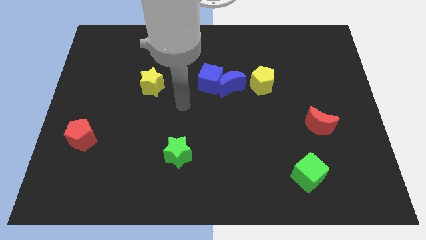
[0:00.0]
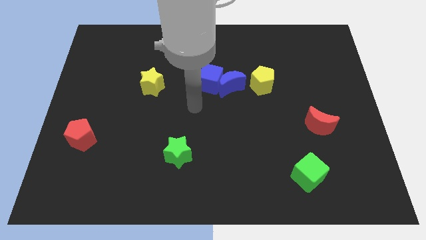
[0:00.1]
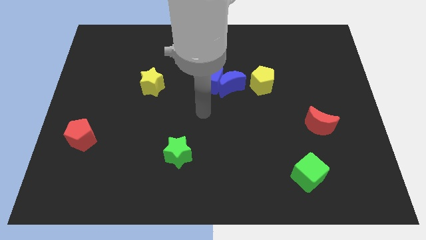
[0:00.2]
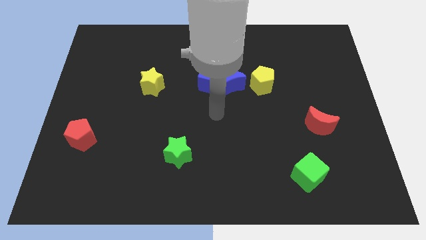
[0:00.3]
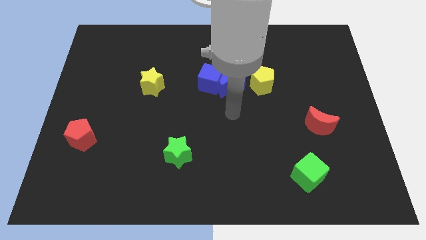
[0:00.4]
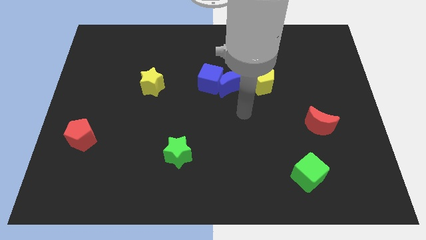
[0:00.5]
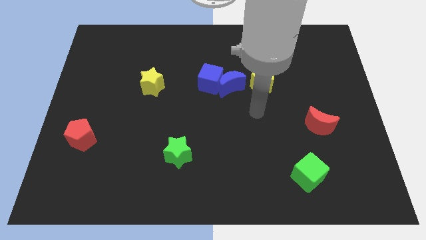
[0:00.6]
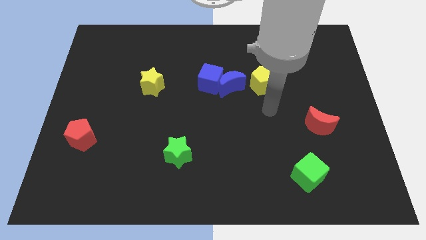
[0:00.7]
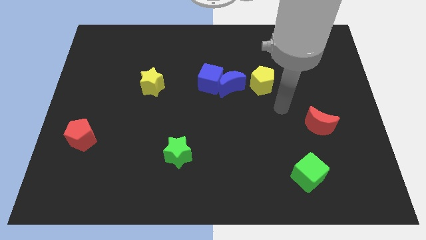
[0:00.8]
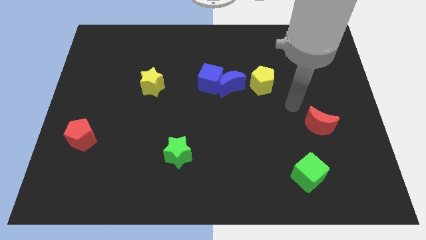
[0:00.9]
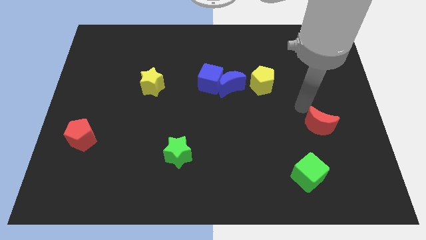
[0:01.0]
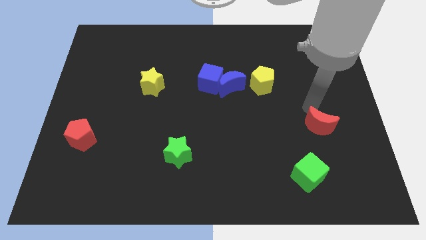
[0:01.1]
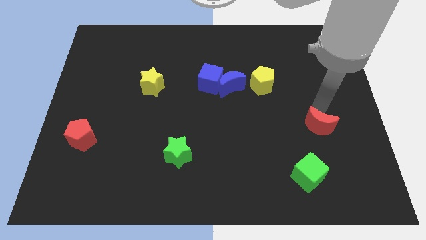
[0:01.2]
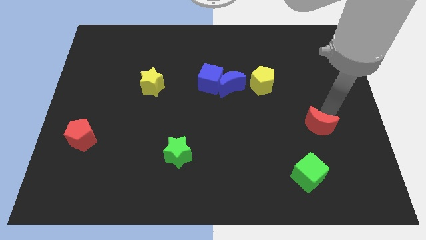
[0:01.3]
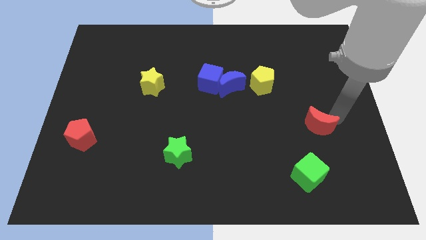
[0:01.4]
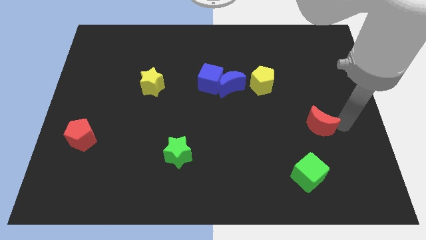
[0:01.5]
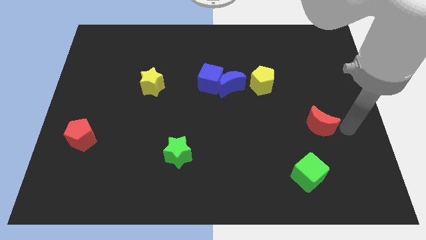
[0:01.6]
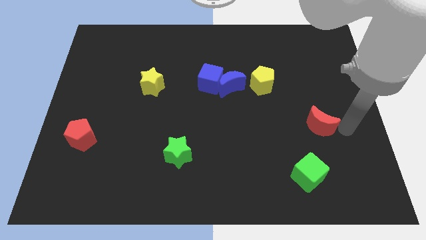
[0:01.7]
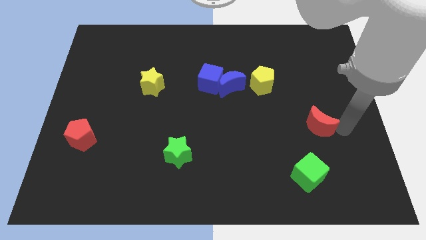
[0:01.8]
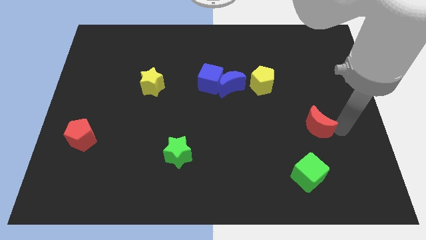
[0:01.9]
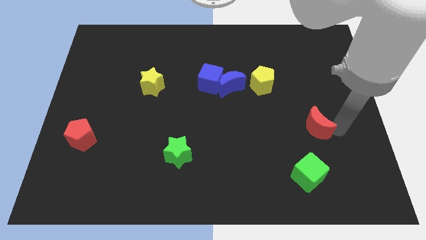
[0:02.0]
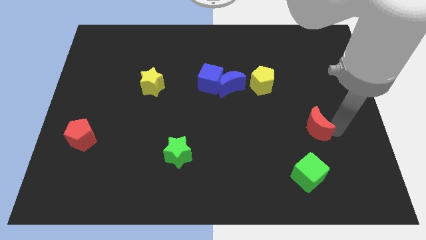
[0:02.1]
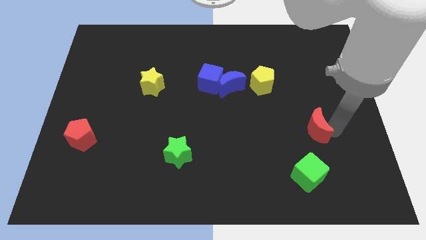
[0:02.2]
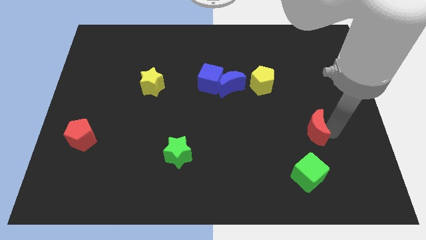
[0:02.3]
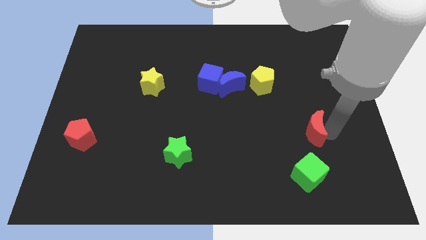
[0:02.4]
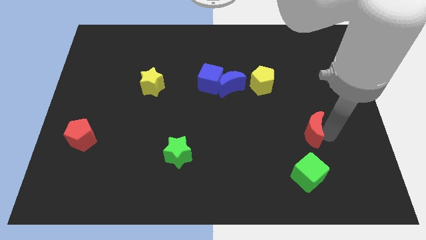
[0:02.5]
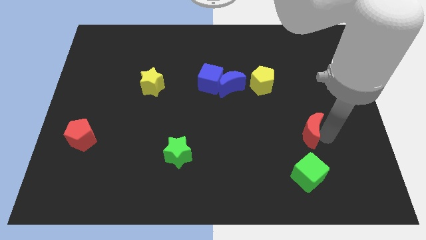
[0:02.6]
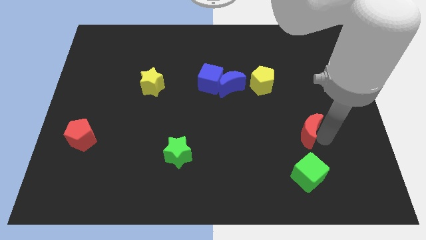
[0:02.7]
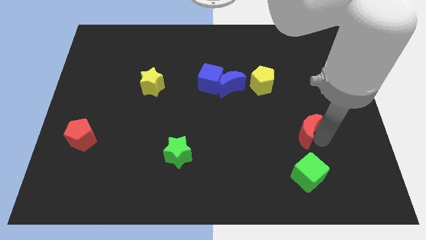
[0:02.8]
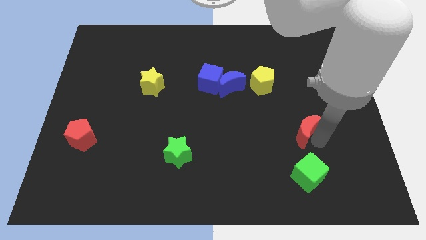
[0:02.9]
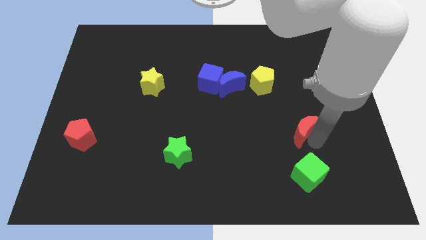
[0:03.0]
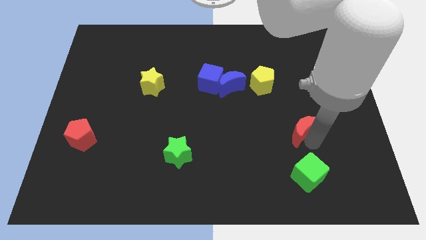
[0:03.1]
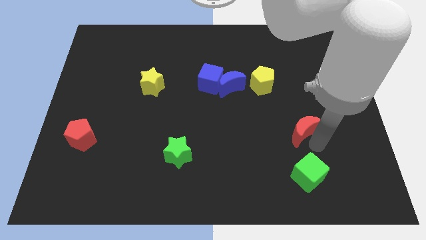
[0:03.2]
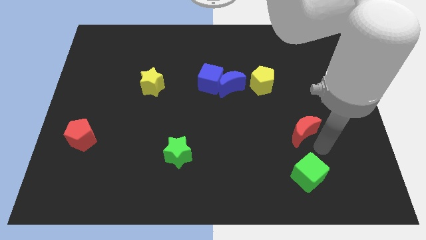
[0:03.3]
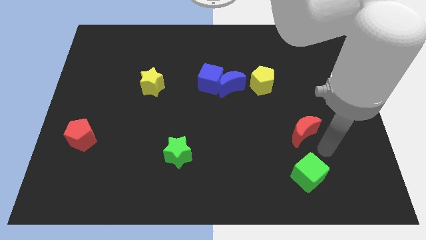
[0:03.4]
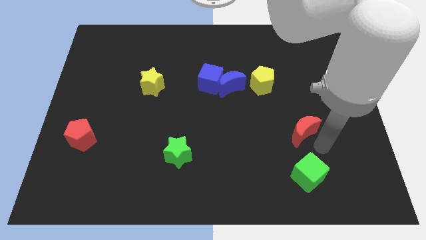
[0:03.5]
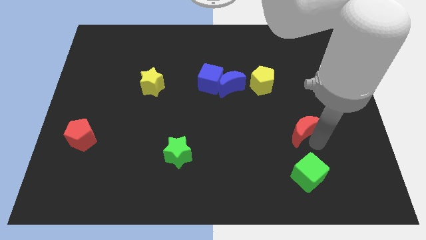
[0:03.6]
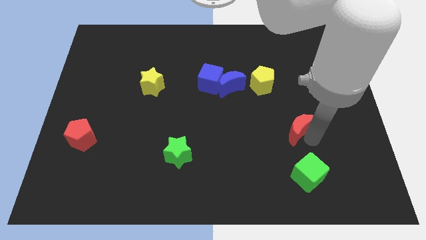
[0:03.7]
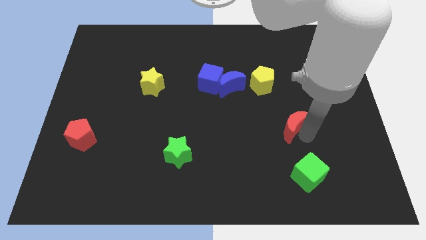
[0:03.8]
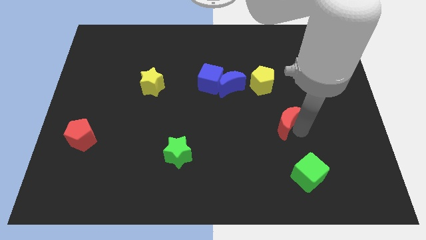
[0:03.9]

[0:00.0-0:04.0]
slightly push the red moon left

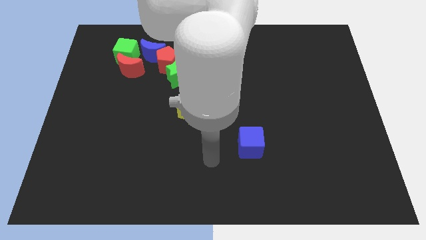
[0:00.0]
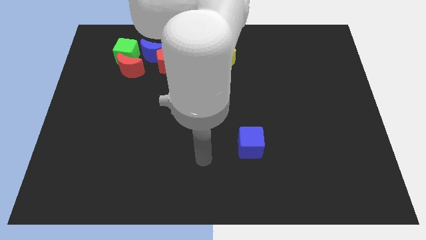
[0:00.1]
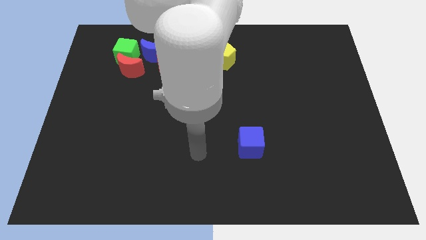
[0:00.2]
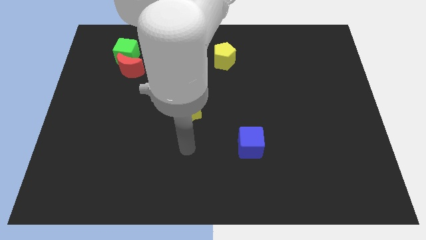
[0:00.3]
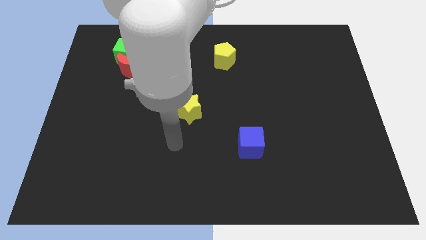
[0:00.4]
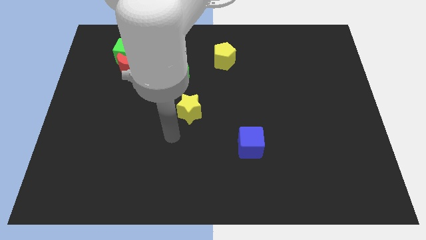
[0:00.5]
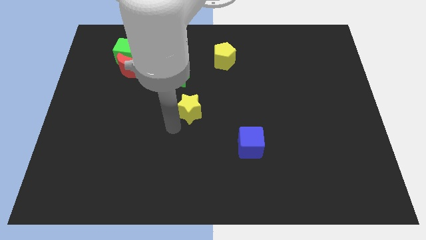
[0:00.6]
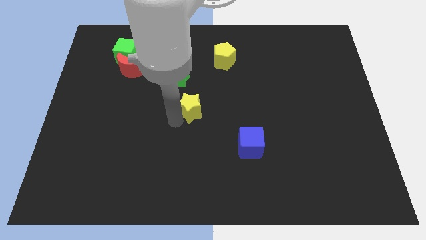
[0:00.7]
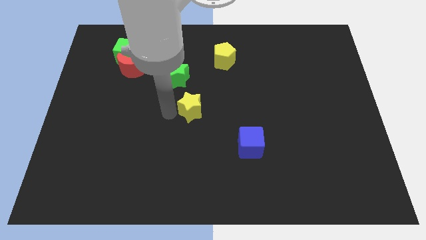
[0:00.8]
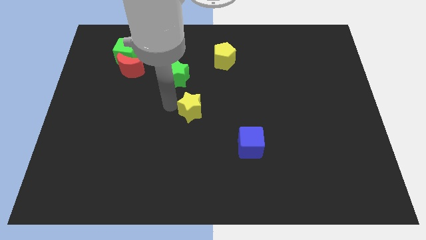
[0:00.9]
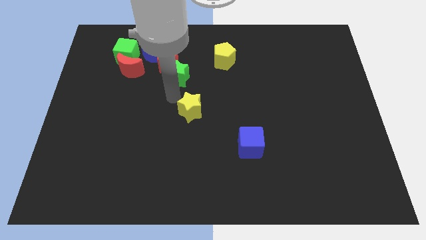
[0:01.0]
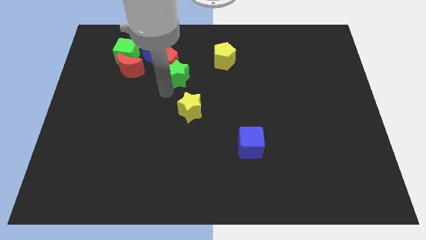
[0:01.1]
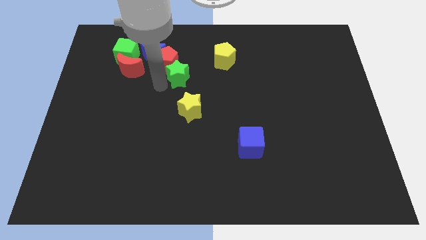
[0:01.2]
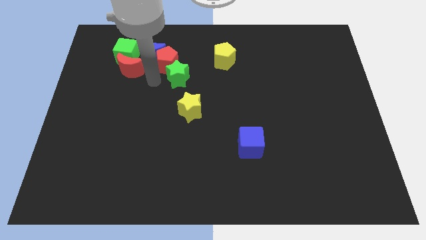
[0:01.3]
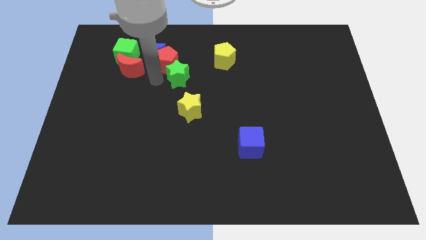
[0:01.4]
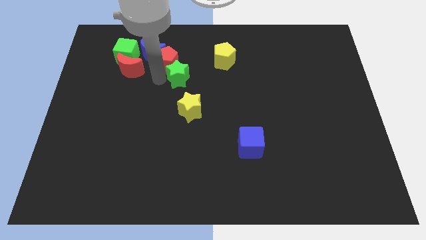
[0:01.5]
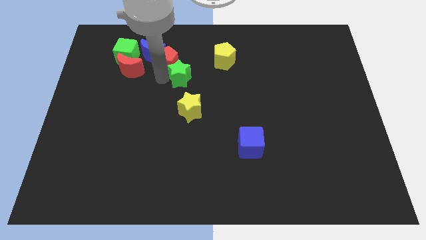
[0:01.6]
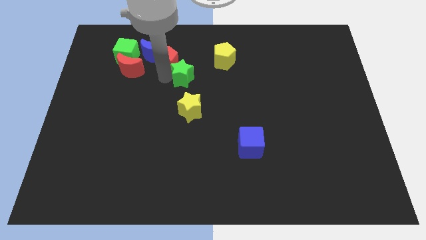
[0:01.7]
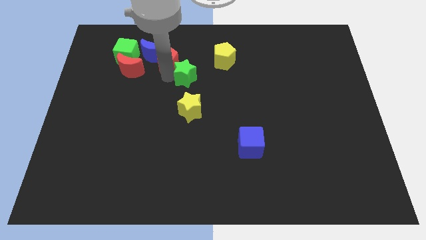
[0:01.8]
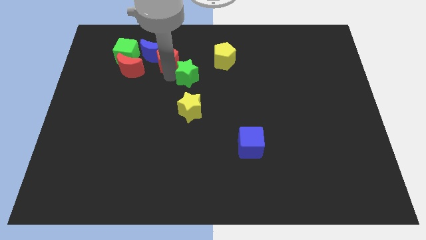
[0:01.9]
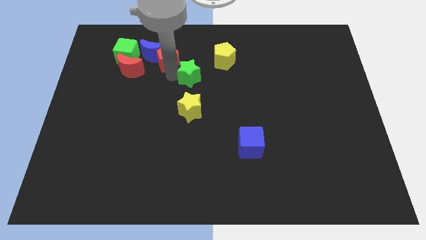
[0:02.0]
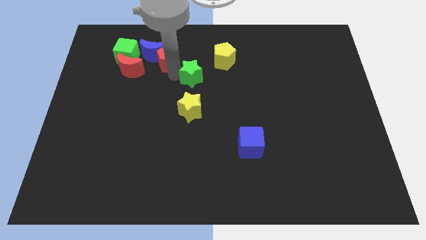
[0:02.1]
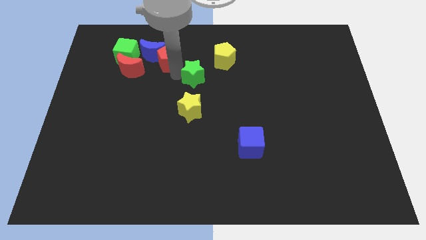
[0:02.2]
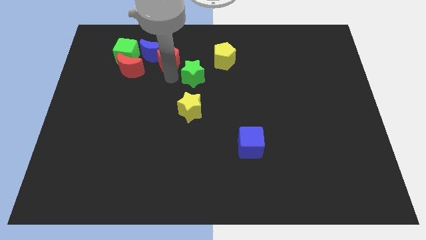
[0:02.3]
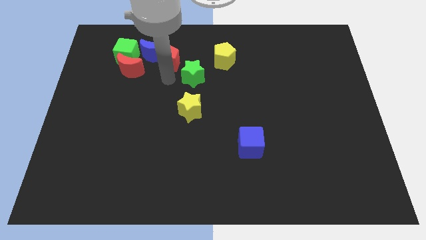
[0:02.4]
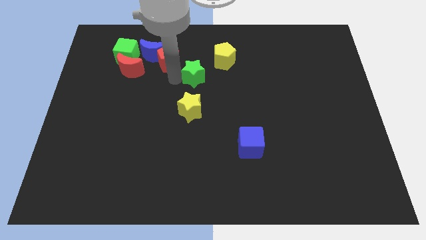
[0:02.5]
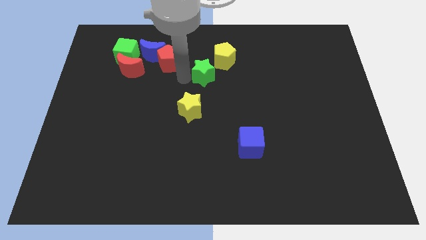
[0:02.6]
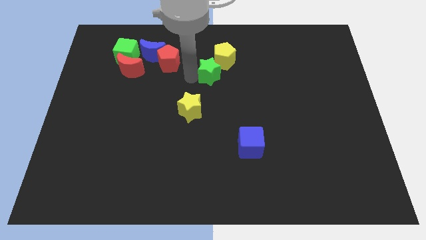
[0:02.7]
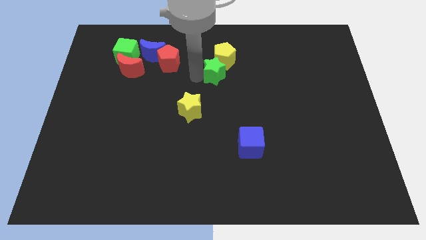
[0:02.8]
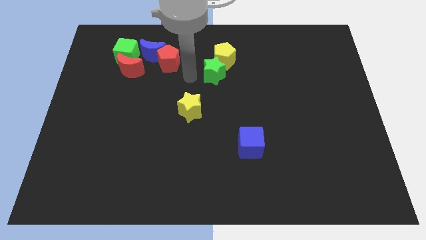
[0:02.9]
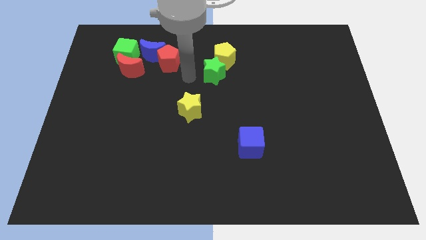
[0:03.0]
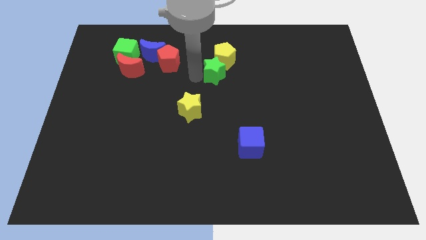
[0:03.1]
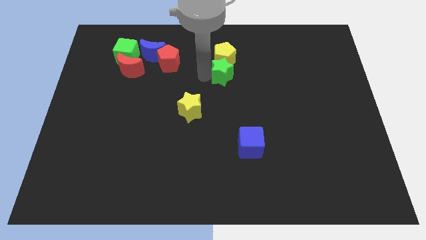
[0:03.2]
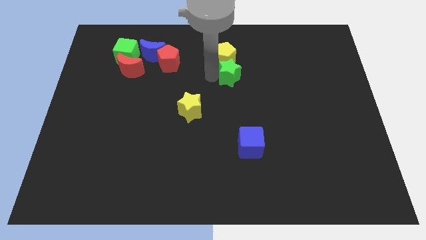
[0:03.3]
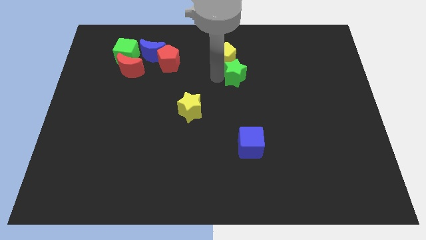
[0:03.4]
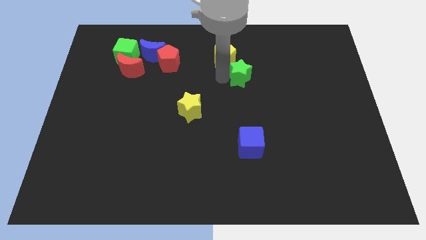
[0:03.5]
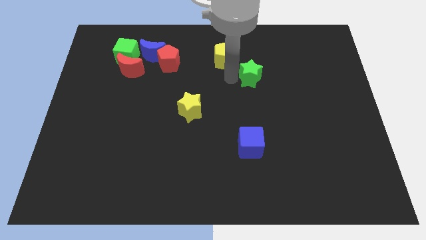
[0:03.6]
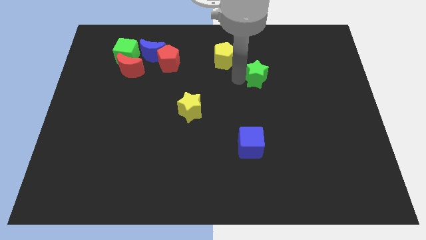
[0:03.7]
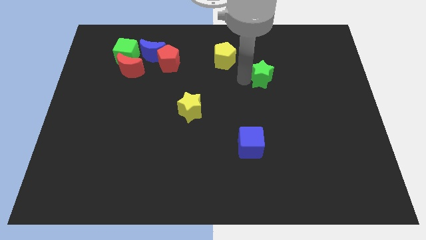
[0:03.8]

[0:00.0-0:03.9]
move the green star to the right
